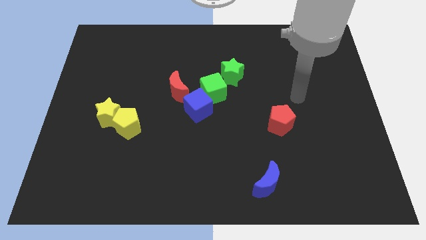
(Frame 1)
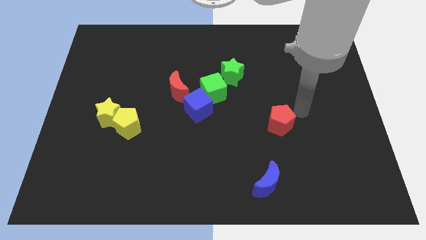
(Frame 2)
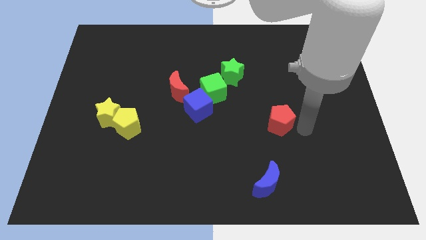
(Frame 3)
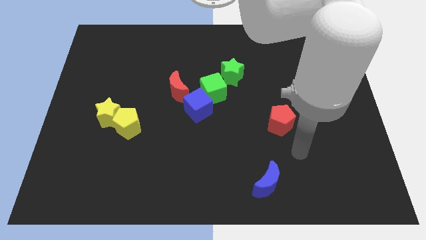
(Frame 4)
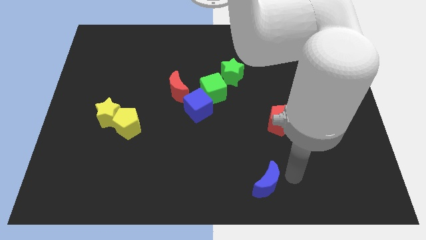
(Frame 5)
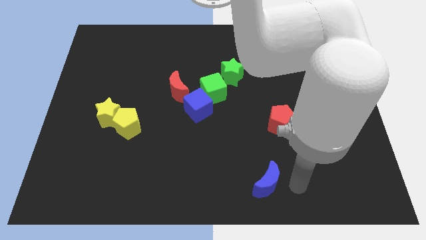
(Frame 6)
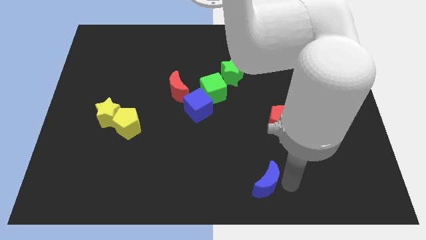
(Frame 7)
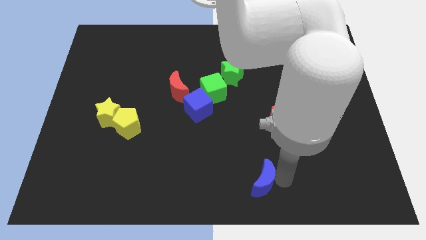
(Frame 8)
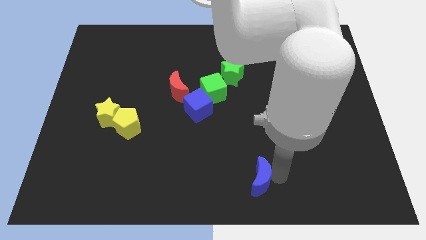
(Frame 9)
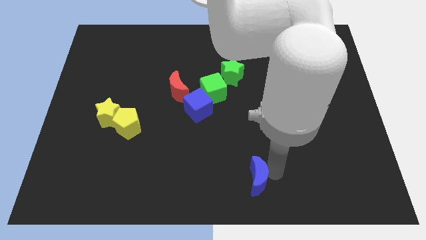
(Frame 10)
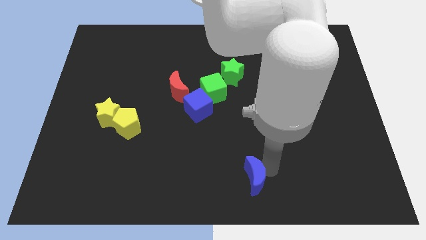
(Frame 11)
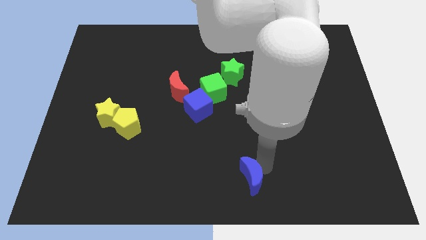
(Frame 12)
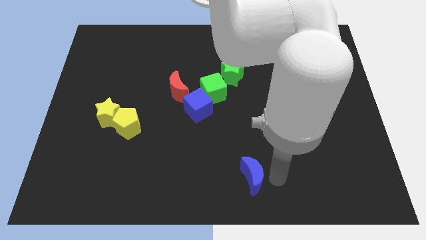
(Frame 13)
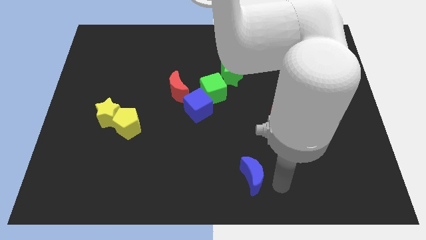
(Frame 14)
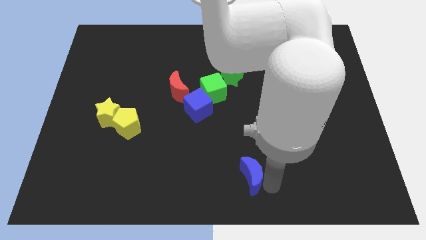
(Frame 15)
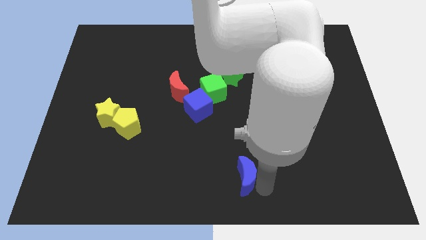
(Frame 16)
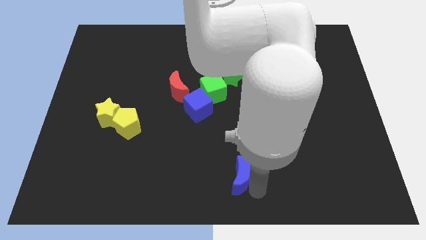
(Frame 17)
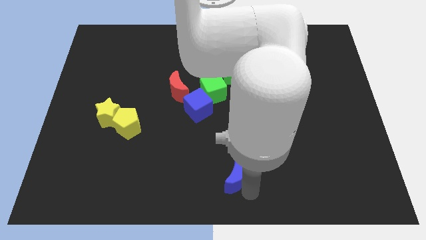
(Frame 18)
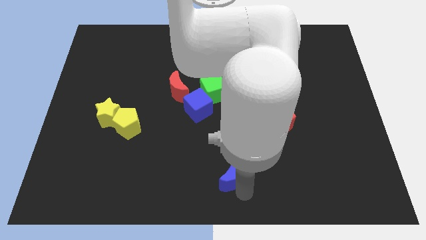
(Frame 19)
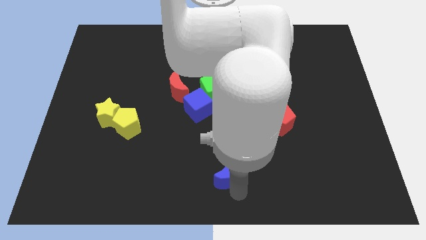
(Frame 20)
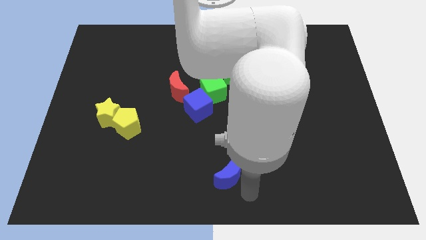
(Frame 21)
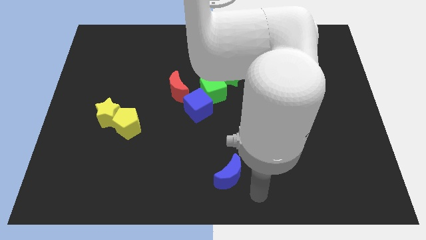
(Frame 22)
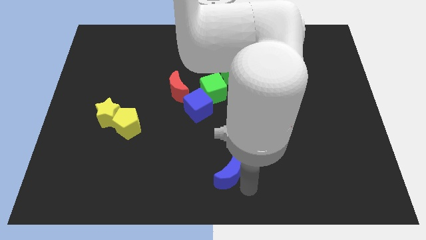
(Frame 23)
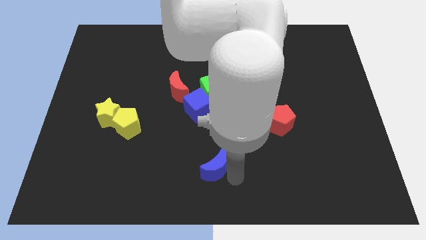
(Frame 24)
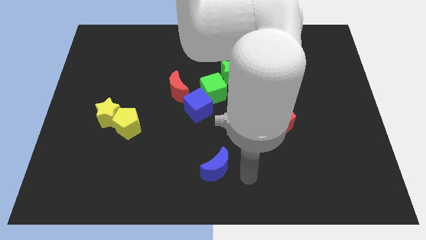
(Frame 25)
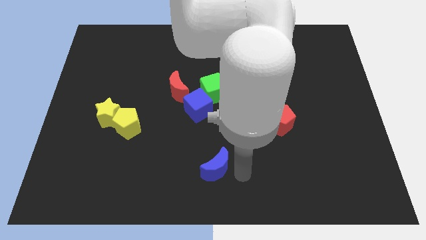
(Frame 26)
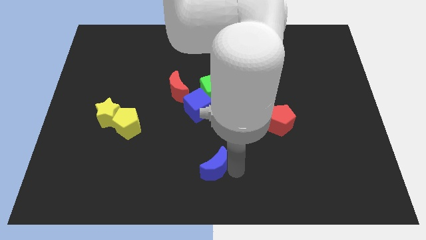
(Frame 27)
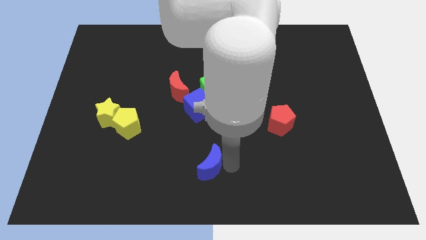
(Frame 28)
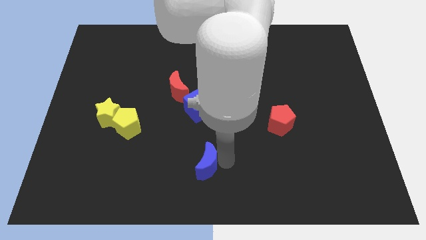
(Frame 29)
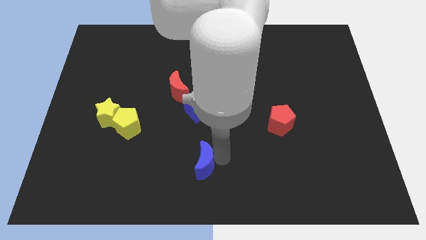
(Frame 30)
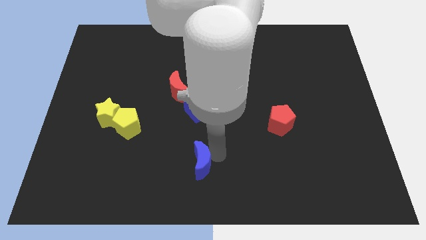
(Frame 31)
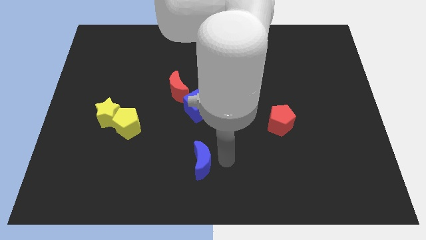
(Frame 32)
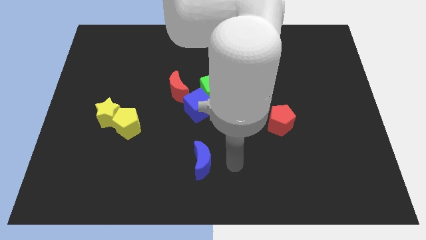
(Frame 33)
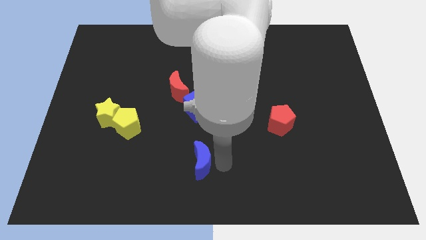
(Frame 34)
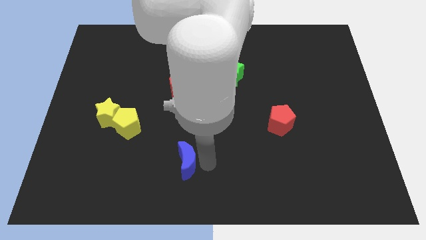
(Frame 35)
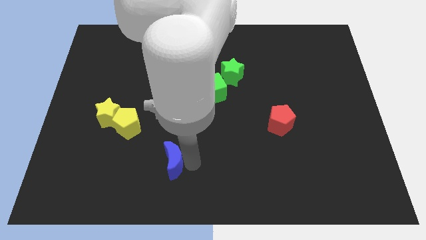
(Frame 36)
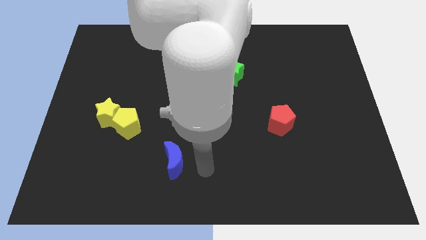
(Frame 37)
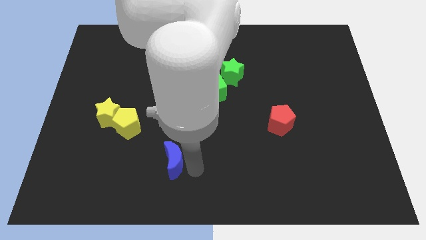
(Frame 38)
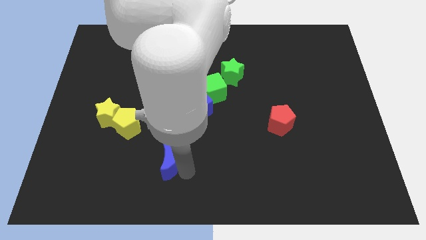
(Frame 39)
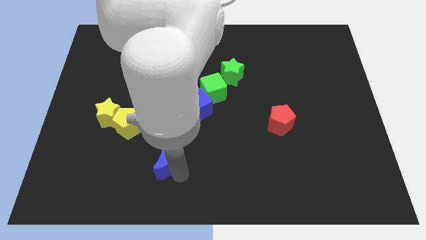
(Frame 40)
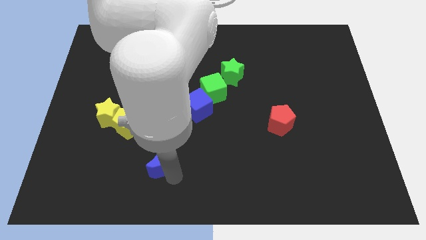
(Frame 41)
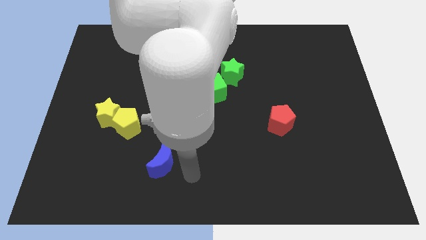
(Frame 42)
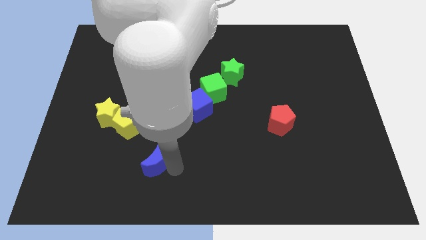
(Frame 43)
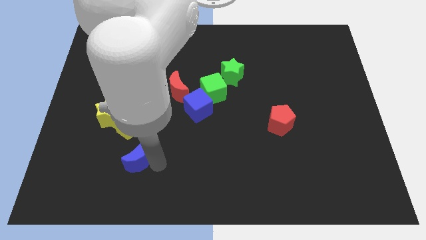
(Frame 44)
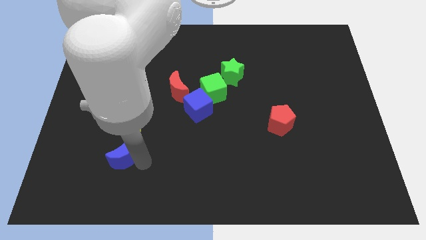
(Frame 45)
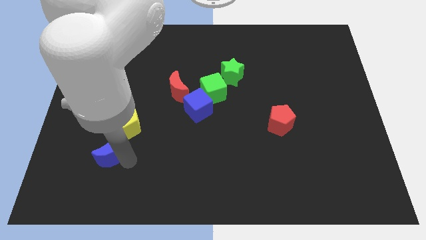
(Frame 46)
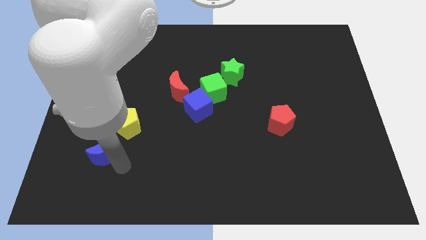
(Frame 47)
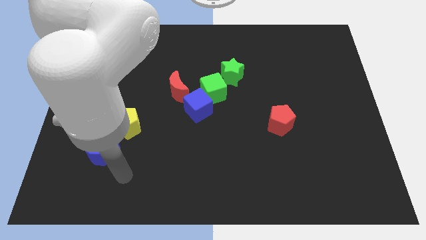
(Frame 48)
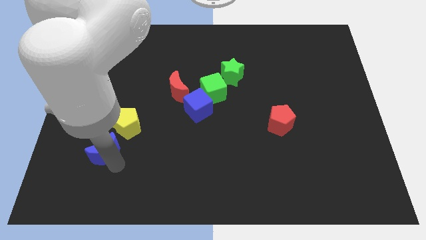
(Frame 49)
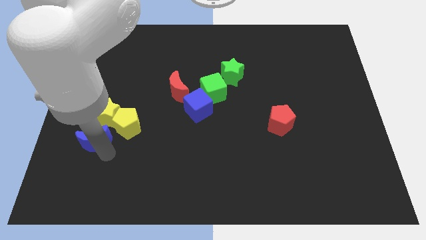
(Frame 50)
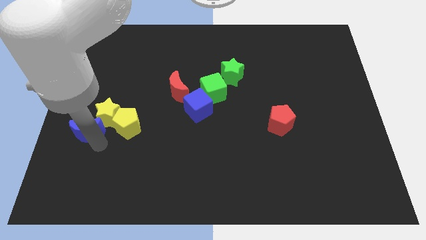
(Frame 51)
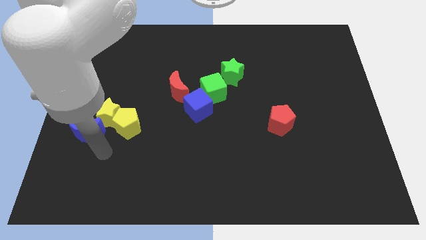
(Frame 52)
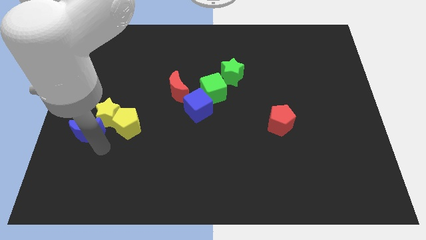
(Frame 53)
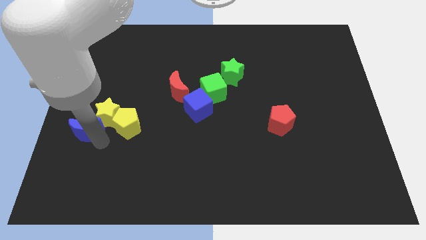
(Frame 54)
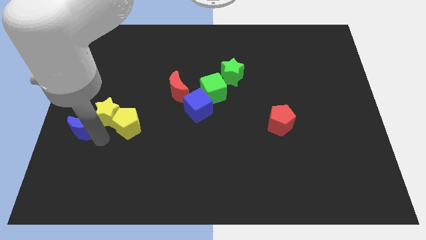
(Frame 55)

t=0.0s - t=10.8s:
push the blue moon to the left side
